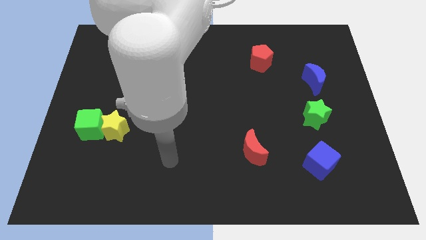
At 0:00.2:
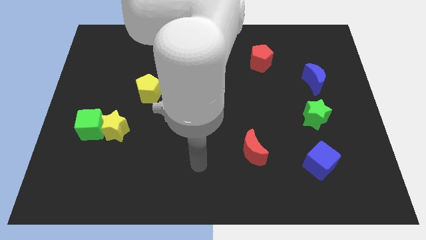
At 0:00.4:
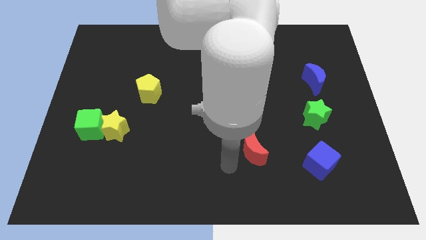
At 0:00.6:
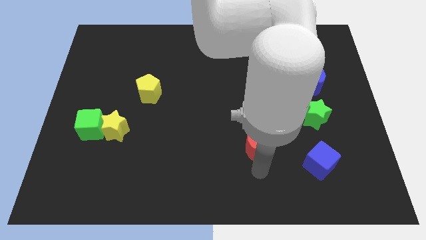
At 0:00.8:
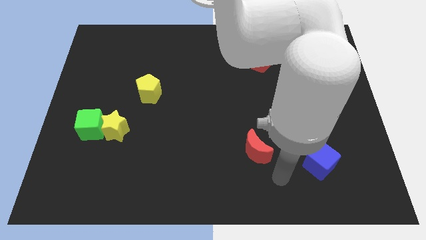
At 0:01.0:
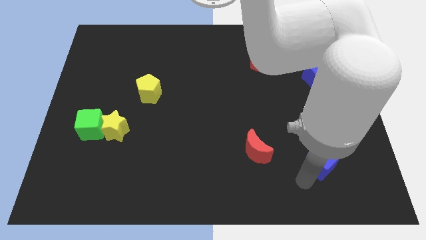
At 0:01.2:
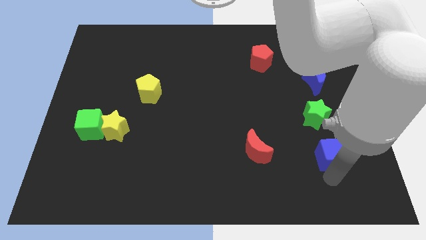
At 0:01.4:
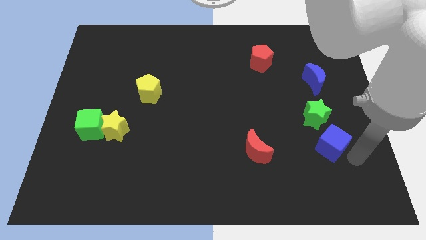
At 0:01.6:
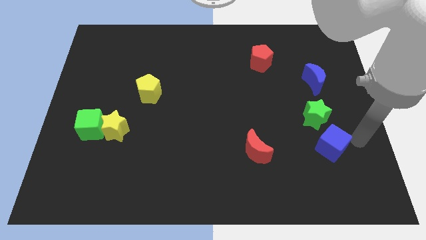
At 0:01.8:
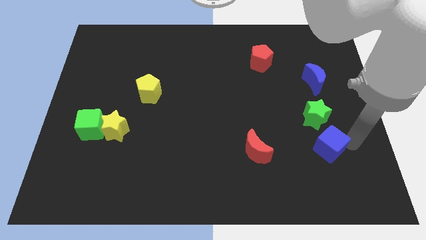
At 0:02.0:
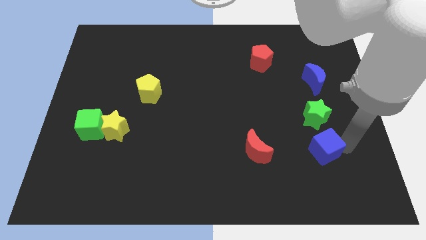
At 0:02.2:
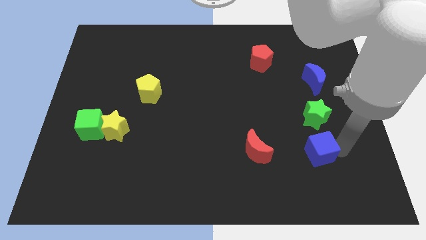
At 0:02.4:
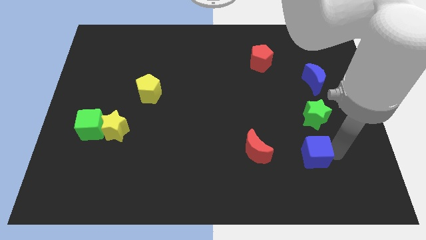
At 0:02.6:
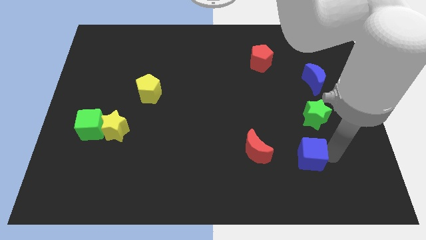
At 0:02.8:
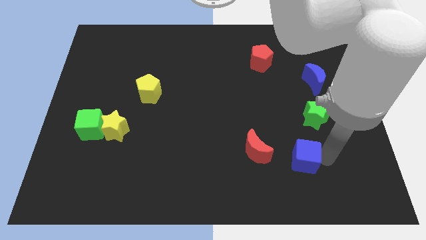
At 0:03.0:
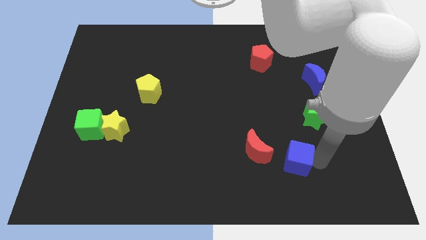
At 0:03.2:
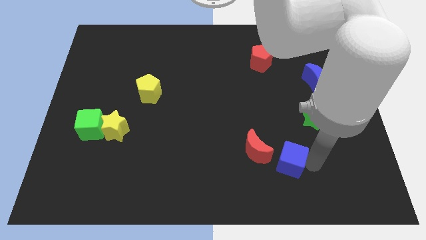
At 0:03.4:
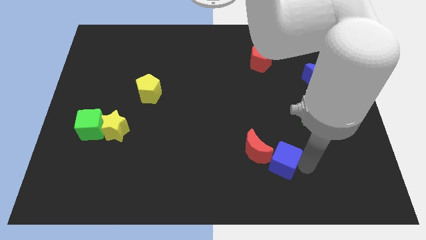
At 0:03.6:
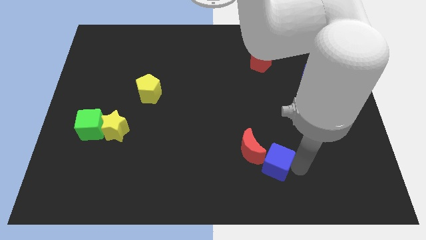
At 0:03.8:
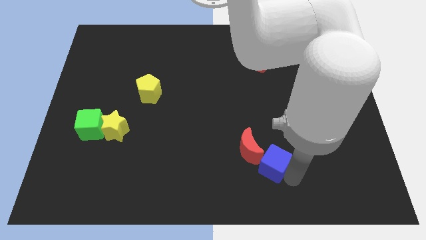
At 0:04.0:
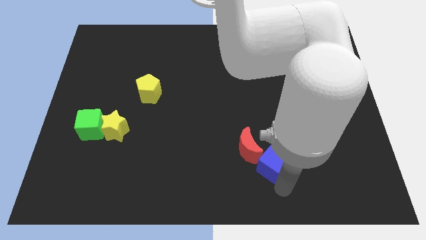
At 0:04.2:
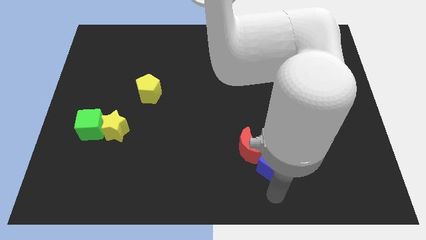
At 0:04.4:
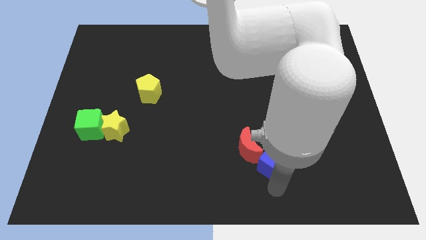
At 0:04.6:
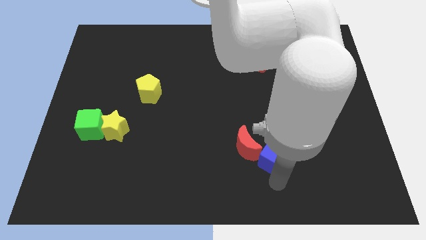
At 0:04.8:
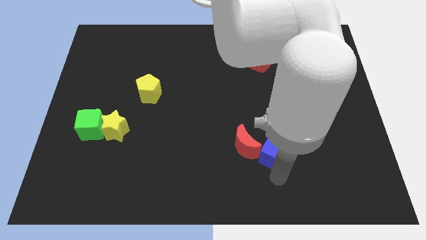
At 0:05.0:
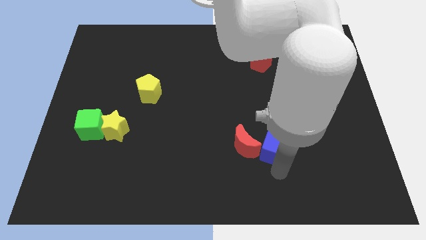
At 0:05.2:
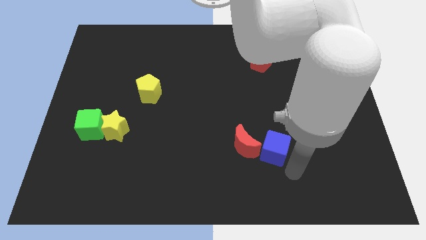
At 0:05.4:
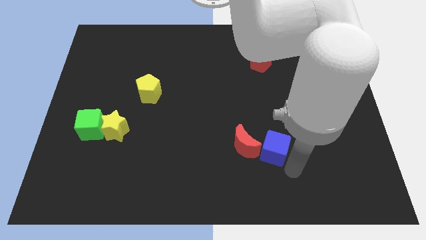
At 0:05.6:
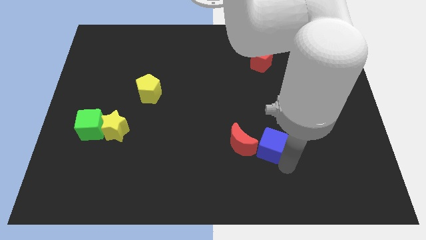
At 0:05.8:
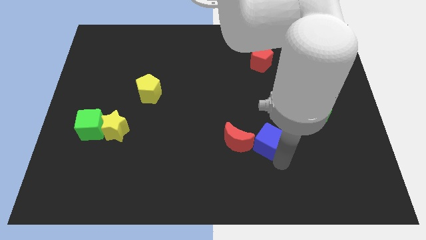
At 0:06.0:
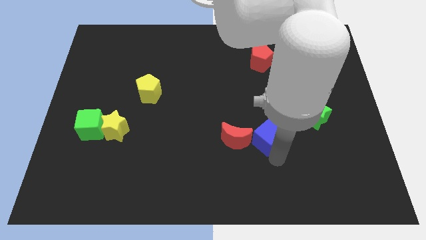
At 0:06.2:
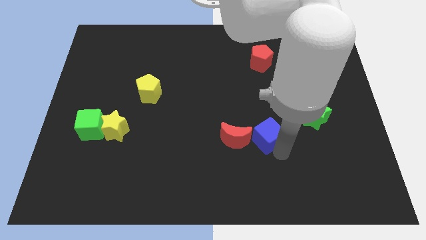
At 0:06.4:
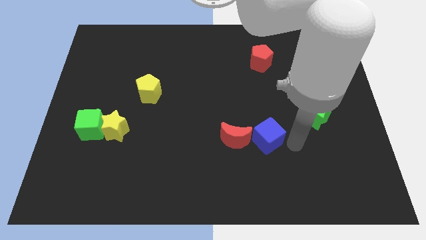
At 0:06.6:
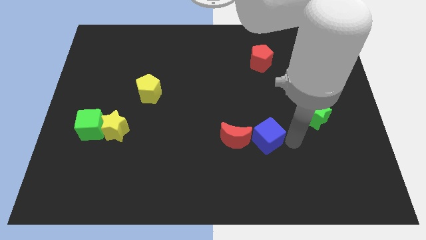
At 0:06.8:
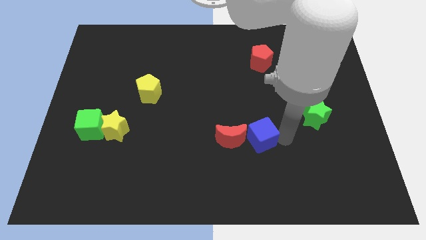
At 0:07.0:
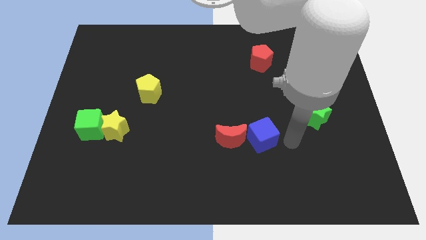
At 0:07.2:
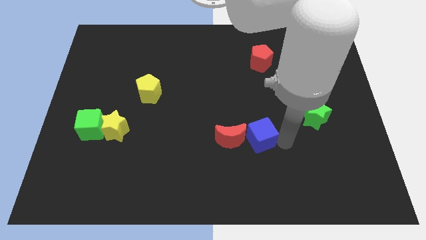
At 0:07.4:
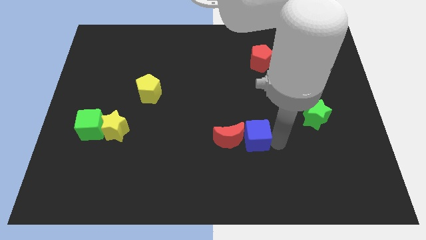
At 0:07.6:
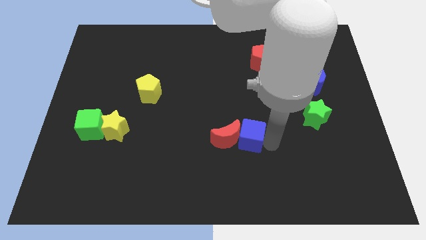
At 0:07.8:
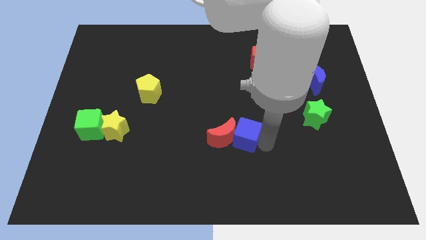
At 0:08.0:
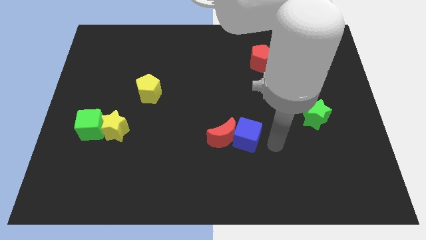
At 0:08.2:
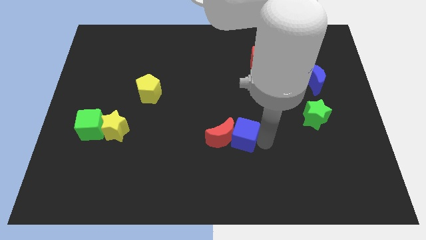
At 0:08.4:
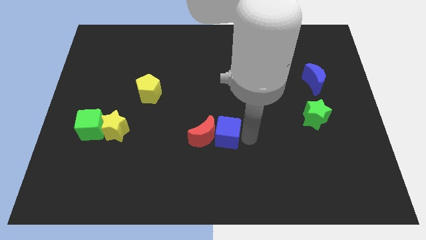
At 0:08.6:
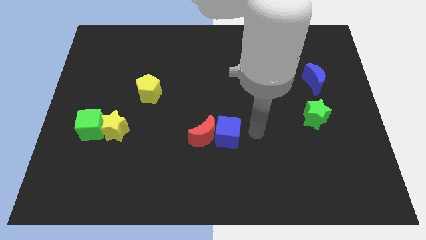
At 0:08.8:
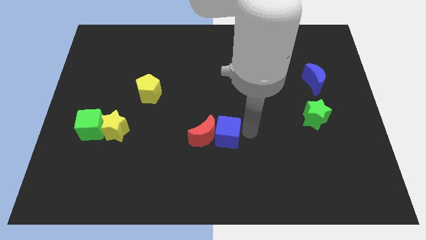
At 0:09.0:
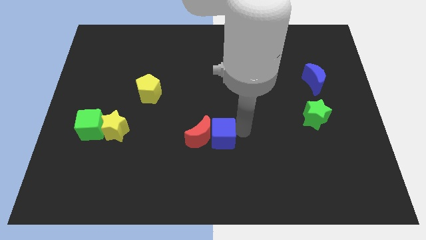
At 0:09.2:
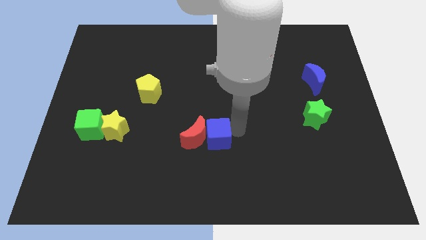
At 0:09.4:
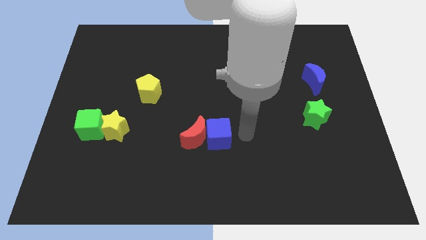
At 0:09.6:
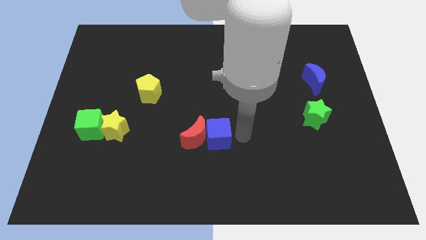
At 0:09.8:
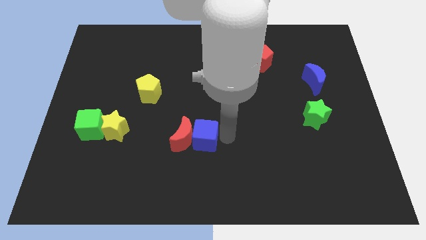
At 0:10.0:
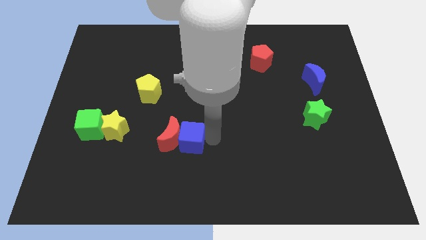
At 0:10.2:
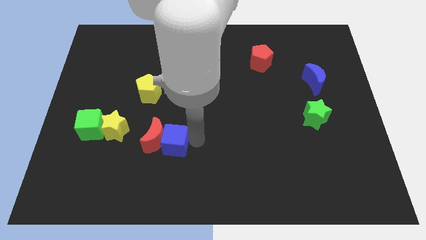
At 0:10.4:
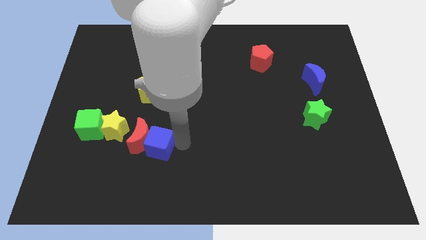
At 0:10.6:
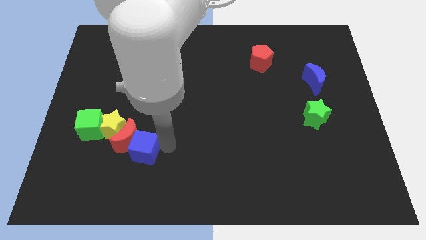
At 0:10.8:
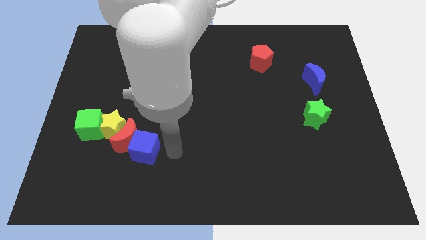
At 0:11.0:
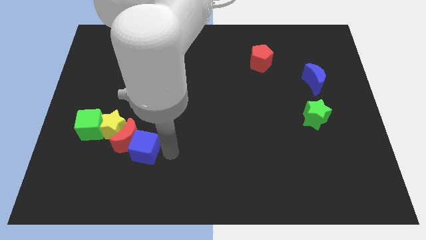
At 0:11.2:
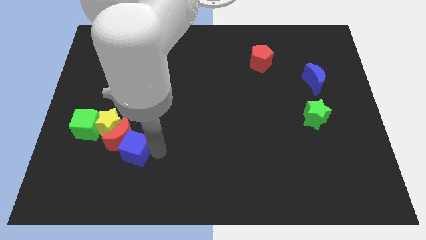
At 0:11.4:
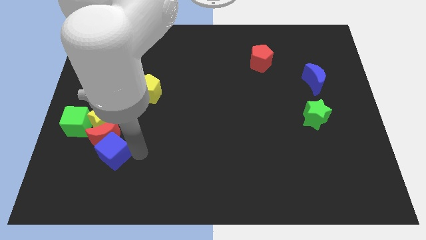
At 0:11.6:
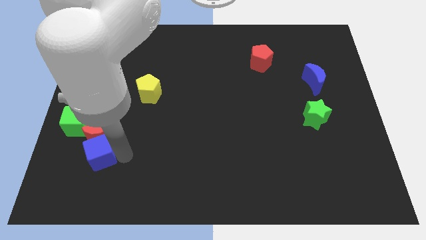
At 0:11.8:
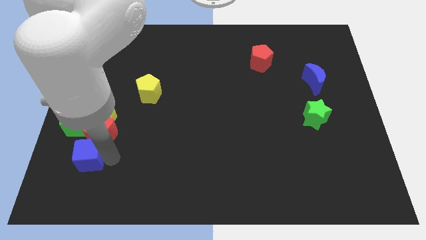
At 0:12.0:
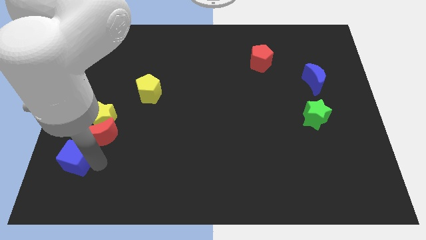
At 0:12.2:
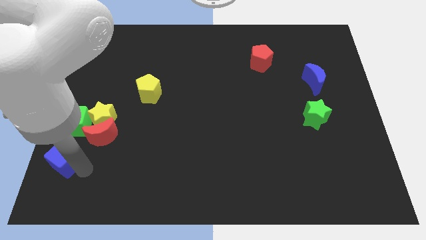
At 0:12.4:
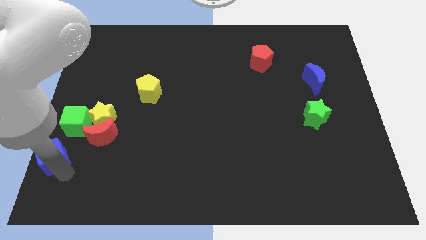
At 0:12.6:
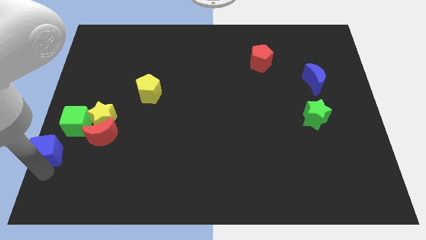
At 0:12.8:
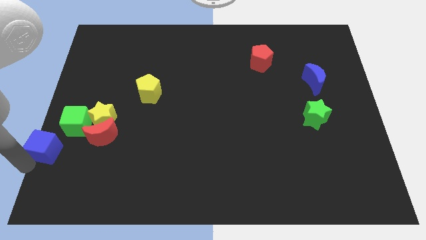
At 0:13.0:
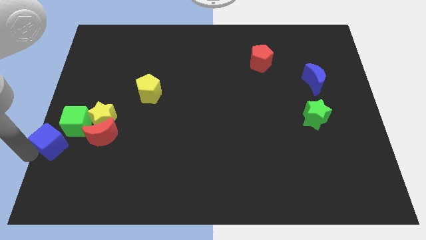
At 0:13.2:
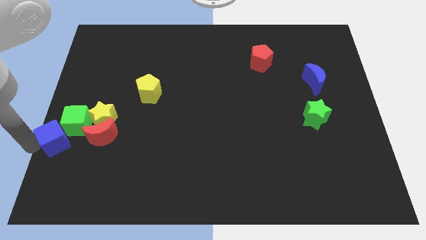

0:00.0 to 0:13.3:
move the blue cube to the green cube

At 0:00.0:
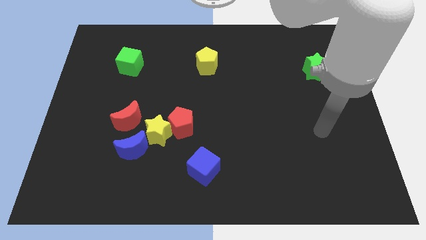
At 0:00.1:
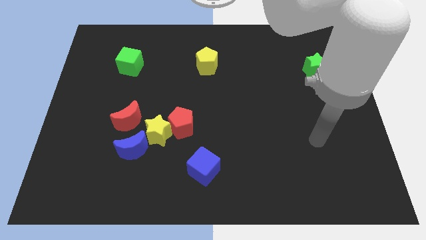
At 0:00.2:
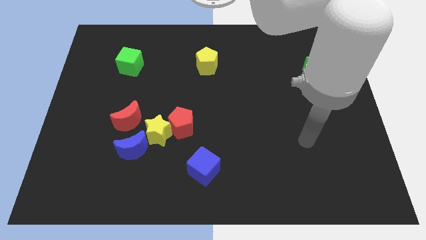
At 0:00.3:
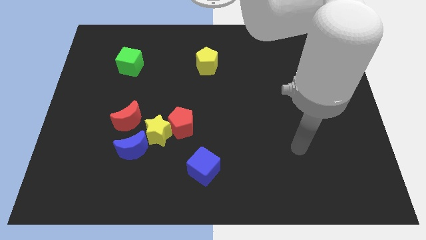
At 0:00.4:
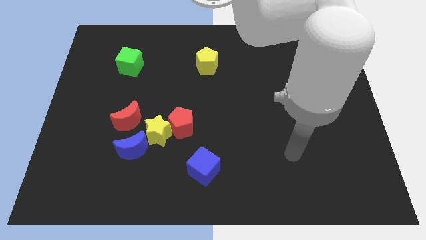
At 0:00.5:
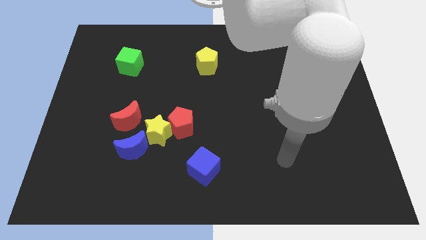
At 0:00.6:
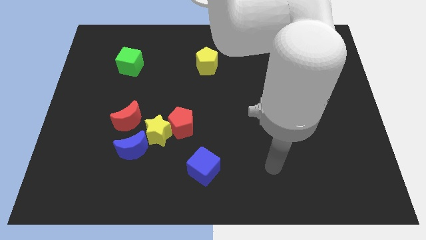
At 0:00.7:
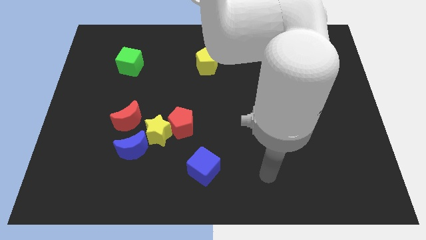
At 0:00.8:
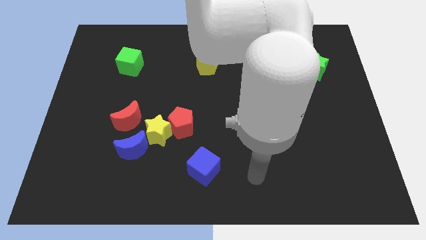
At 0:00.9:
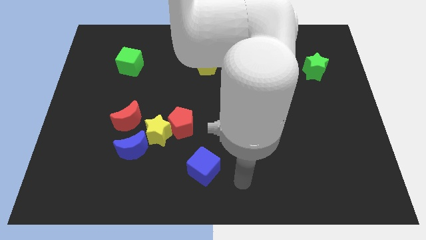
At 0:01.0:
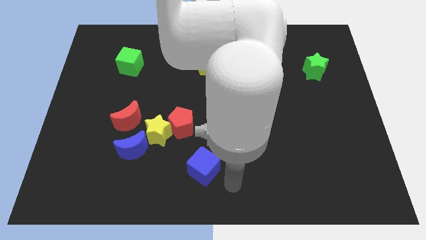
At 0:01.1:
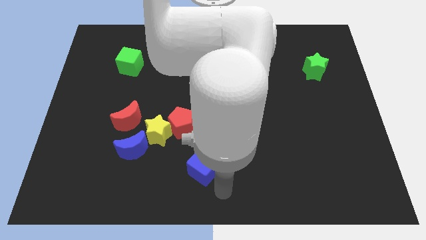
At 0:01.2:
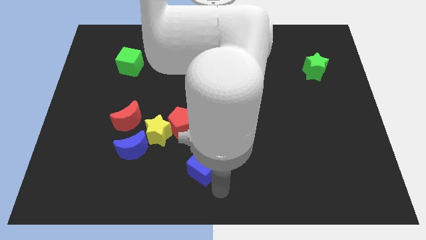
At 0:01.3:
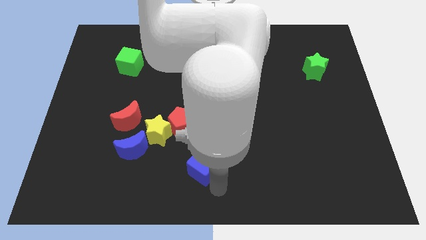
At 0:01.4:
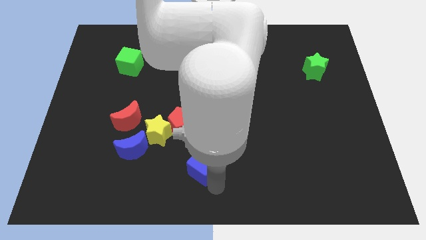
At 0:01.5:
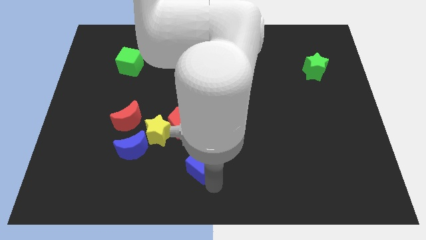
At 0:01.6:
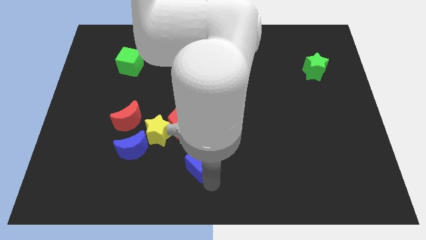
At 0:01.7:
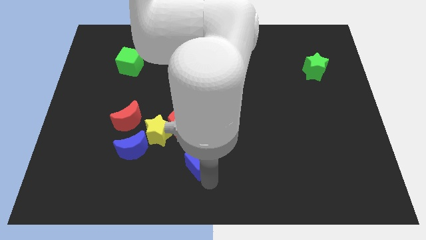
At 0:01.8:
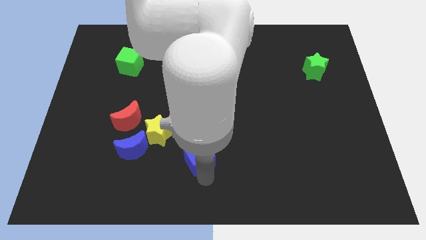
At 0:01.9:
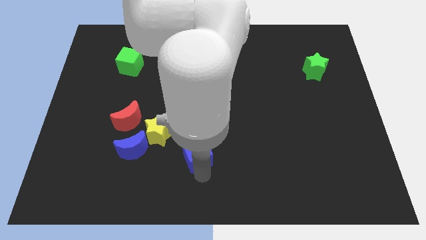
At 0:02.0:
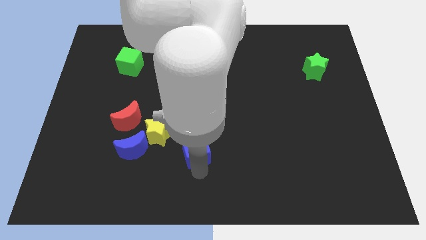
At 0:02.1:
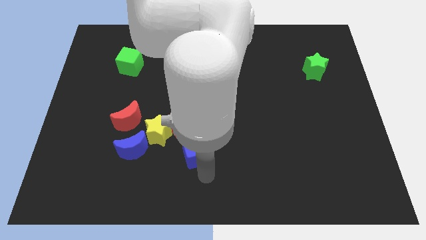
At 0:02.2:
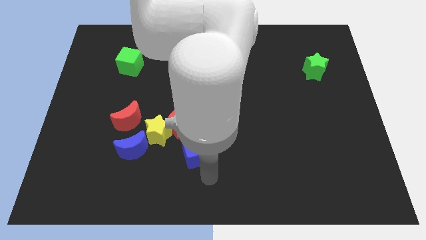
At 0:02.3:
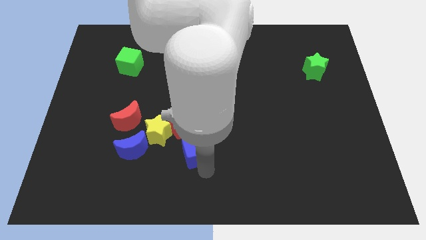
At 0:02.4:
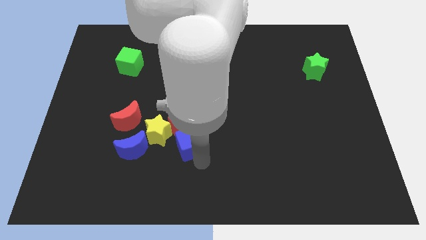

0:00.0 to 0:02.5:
push the blue cube close to the red pentagon
